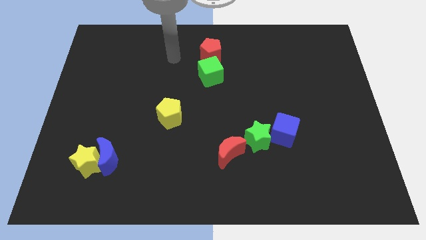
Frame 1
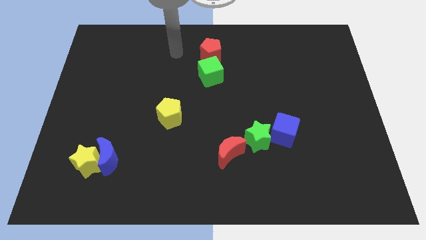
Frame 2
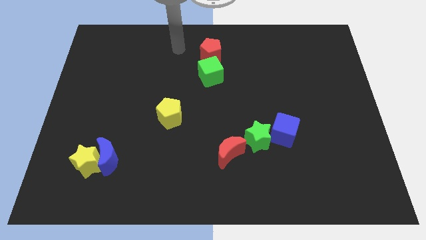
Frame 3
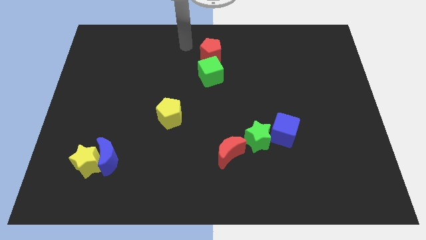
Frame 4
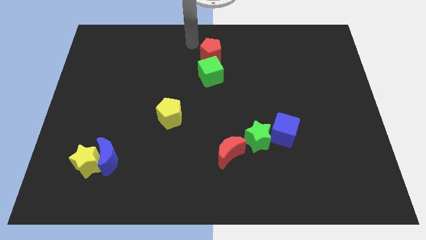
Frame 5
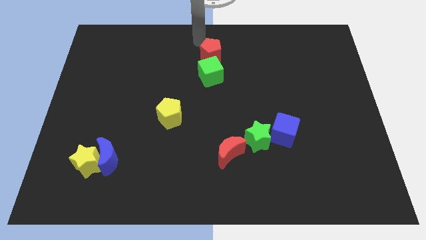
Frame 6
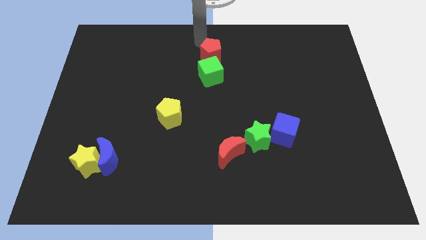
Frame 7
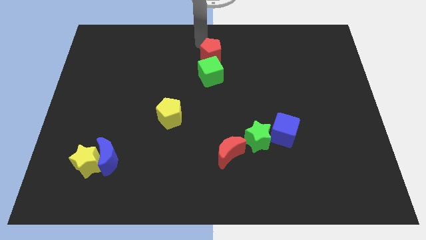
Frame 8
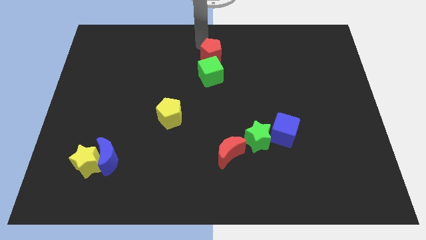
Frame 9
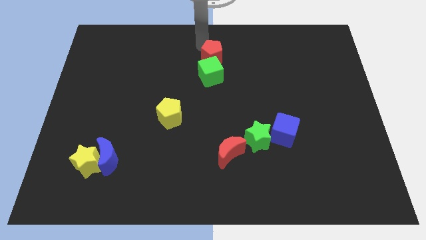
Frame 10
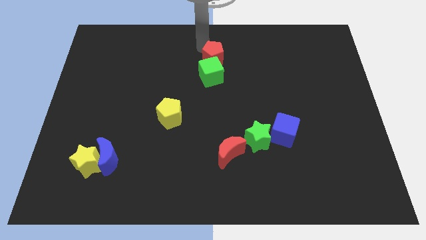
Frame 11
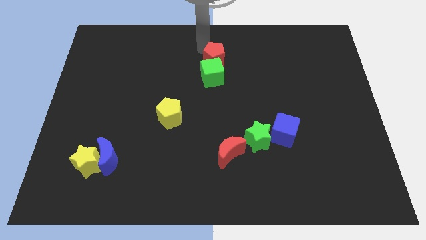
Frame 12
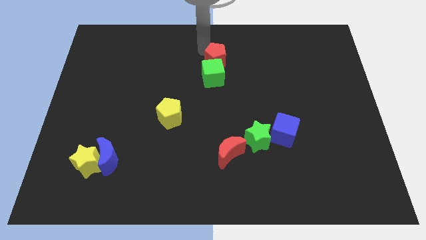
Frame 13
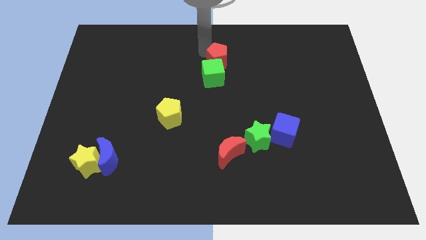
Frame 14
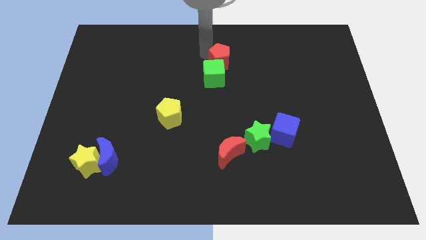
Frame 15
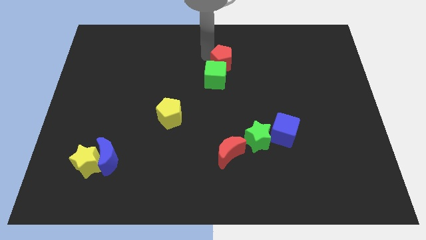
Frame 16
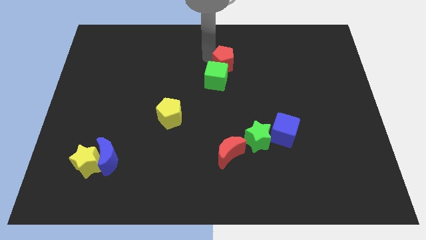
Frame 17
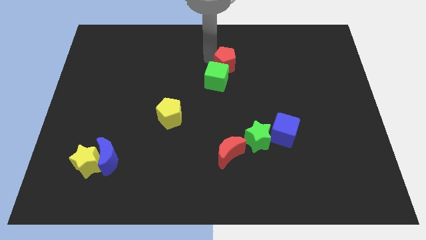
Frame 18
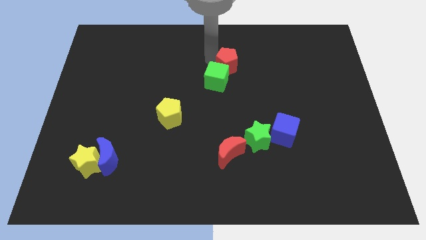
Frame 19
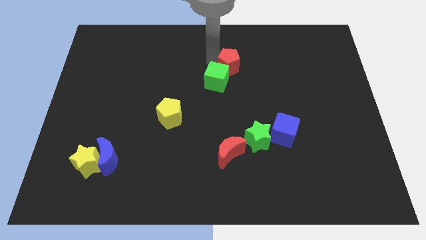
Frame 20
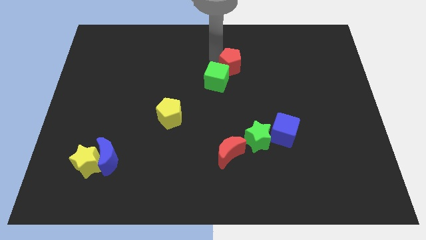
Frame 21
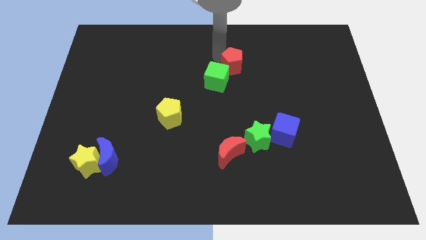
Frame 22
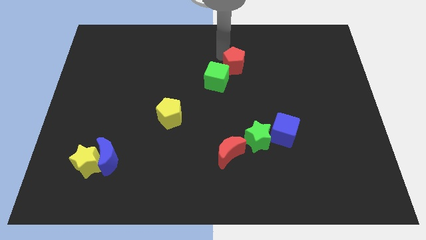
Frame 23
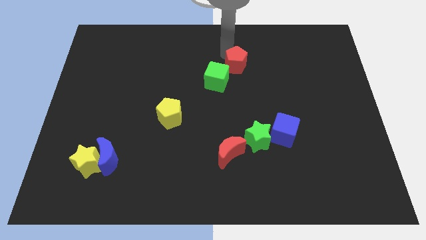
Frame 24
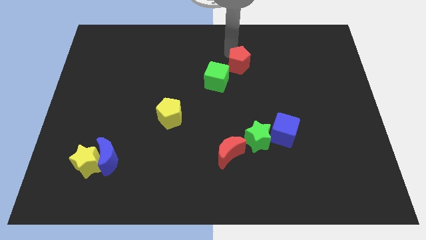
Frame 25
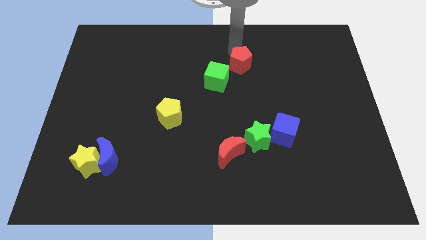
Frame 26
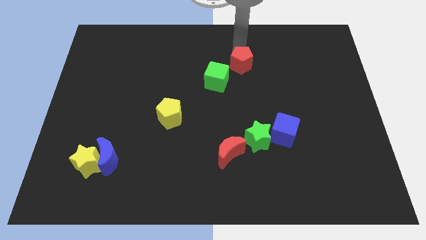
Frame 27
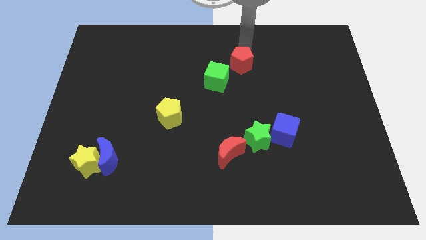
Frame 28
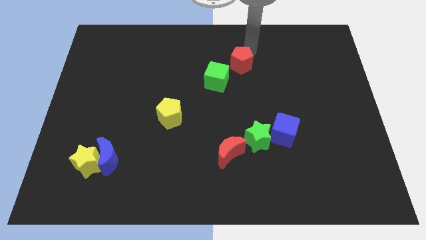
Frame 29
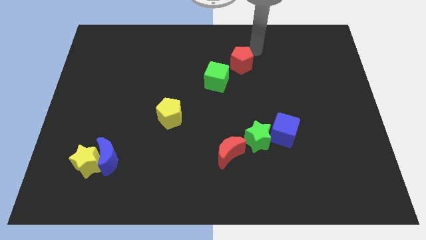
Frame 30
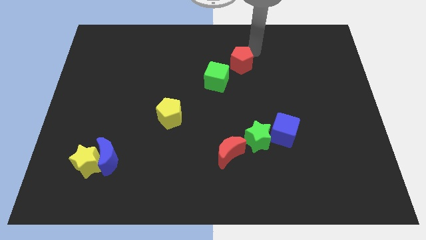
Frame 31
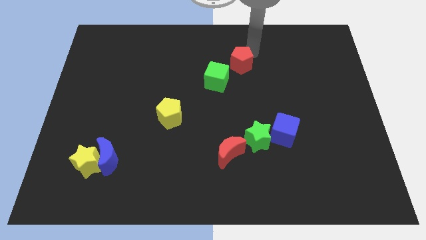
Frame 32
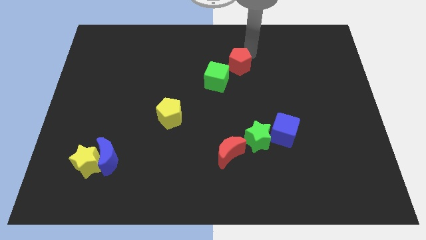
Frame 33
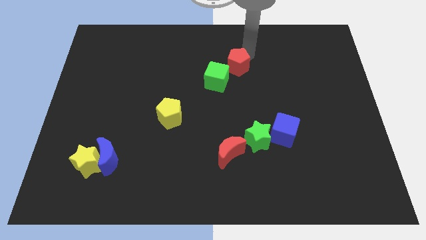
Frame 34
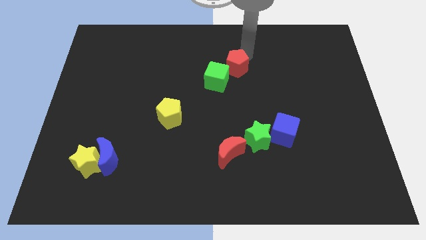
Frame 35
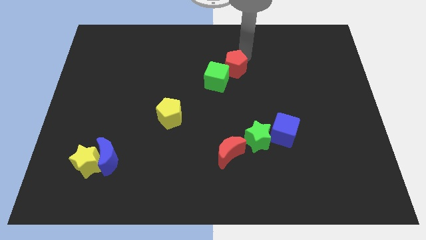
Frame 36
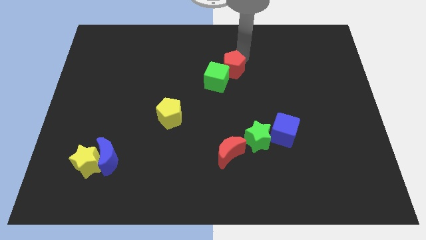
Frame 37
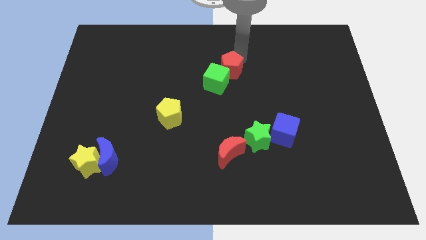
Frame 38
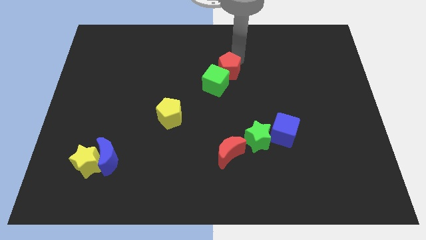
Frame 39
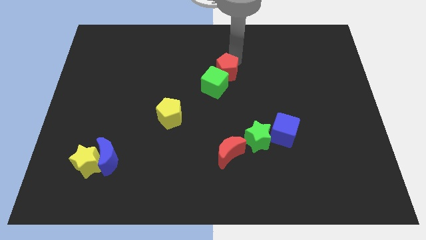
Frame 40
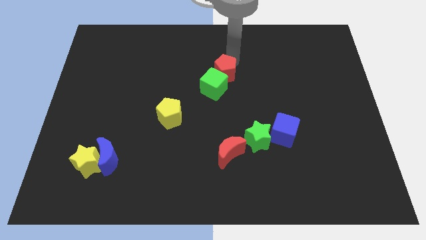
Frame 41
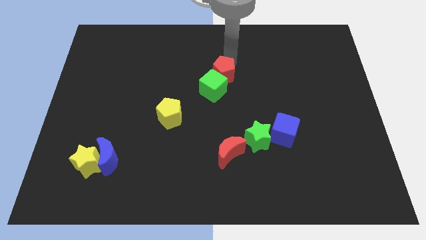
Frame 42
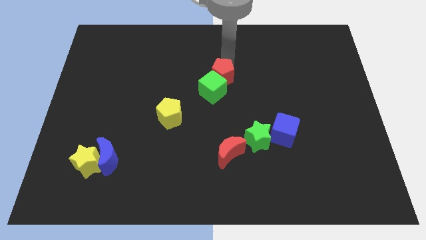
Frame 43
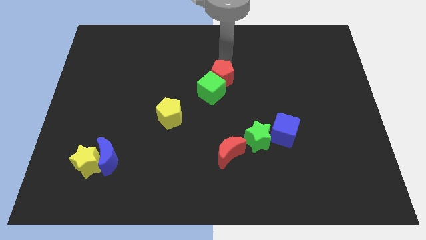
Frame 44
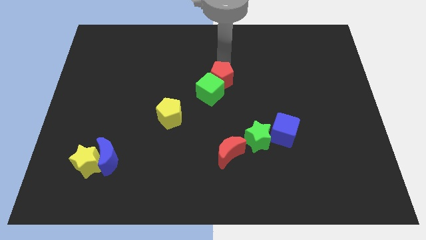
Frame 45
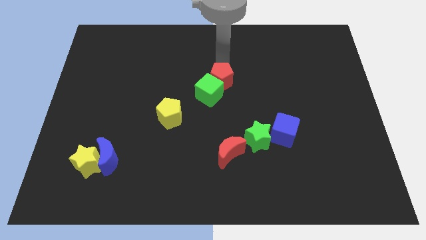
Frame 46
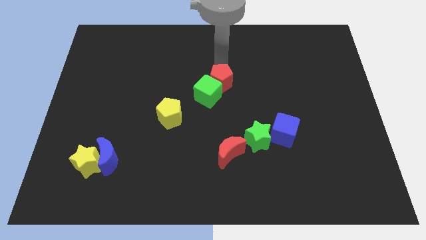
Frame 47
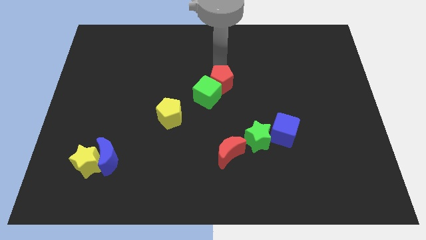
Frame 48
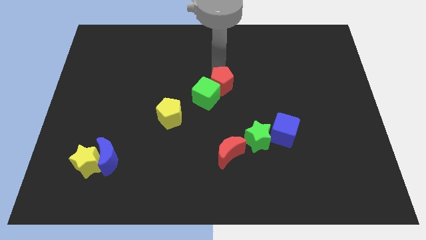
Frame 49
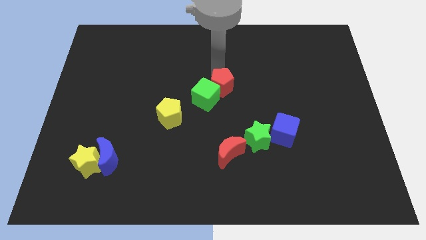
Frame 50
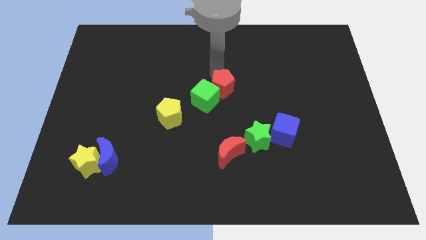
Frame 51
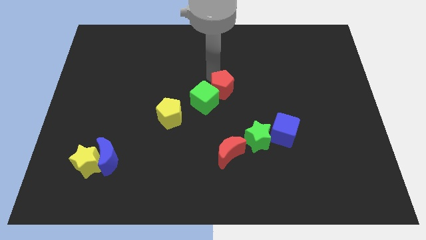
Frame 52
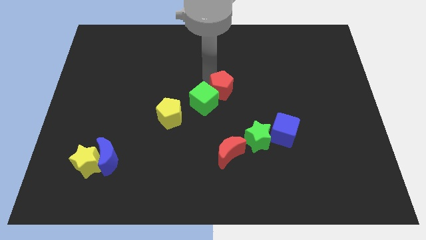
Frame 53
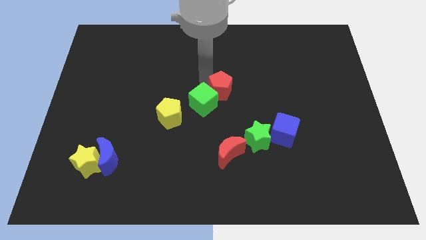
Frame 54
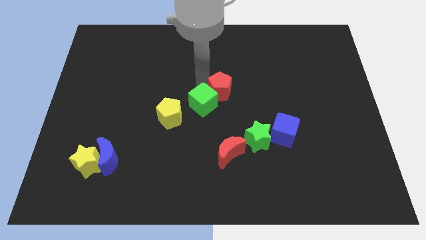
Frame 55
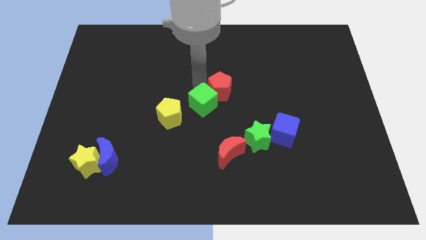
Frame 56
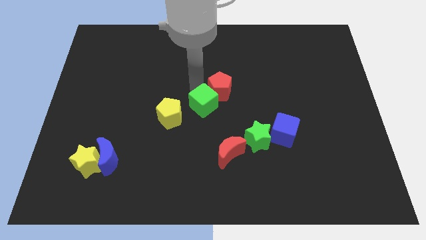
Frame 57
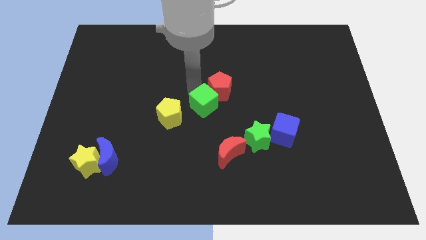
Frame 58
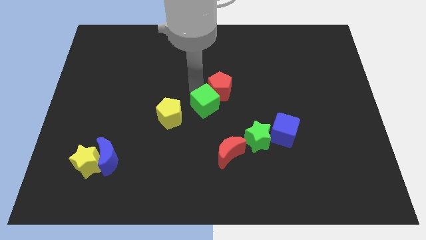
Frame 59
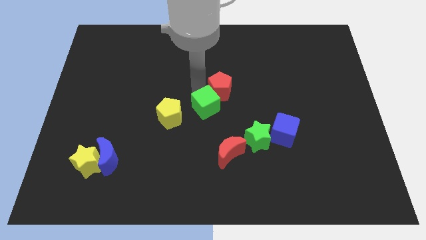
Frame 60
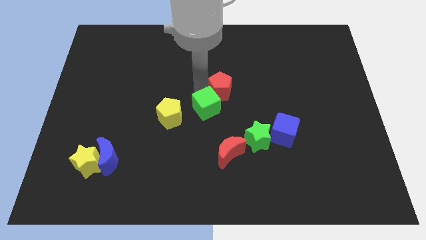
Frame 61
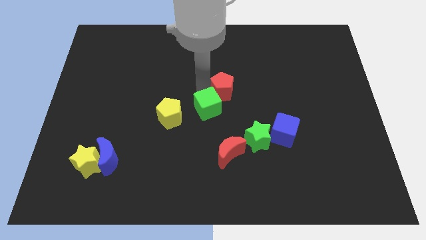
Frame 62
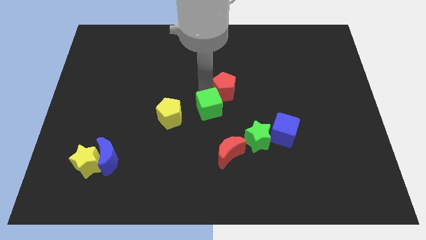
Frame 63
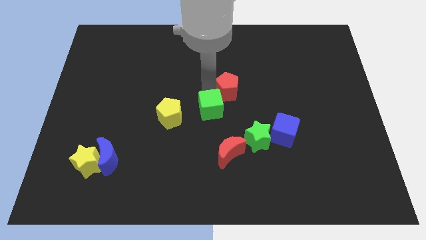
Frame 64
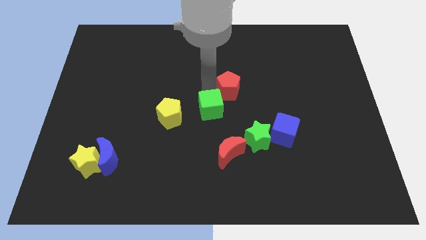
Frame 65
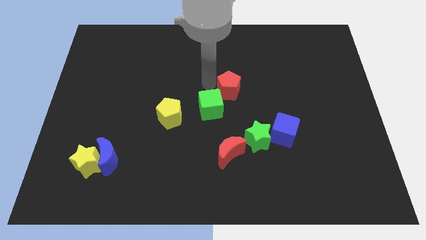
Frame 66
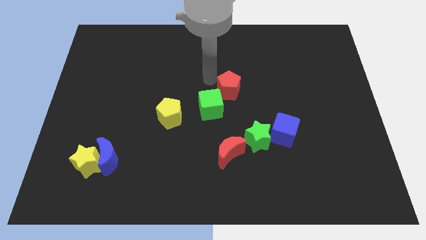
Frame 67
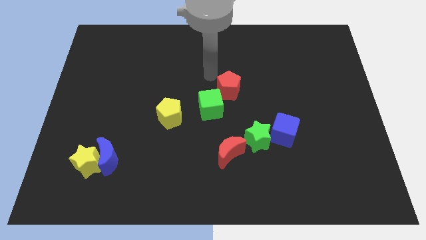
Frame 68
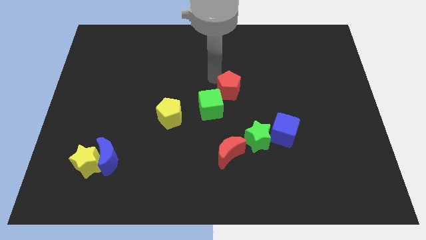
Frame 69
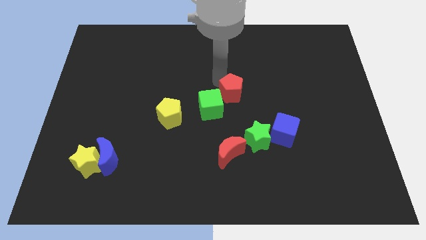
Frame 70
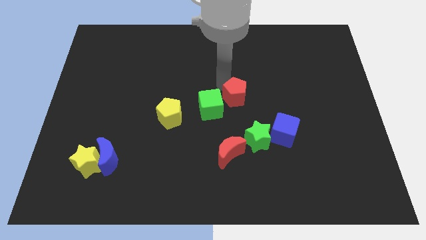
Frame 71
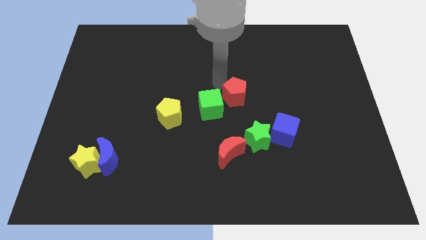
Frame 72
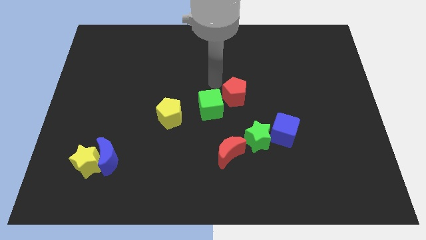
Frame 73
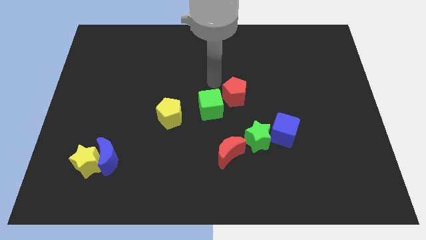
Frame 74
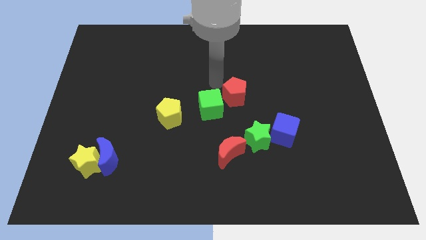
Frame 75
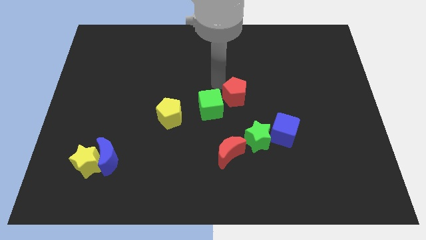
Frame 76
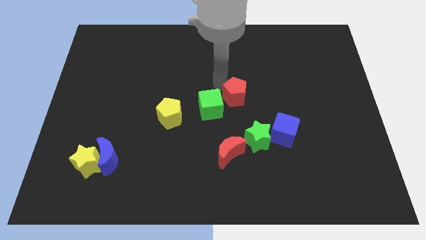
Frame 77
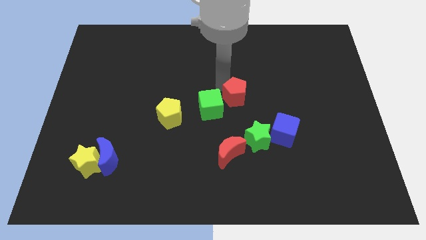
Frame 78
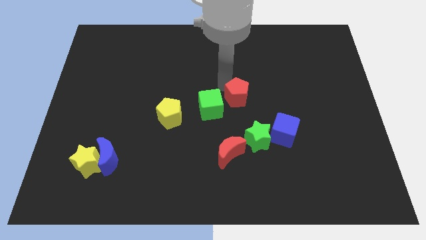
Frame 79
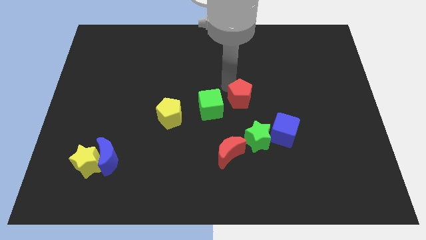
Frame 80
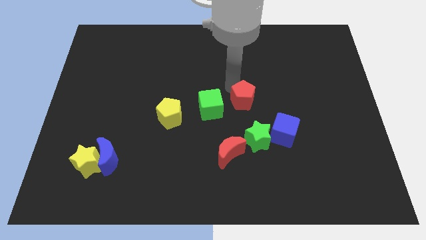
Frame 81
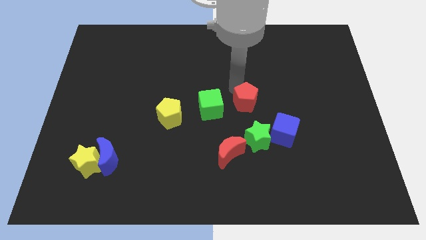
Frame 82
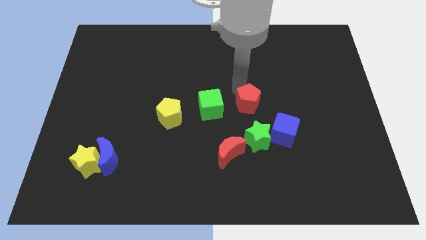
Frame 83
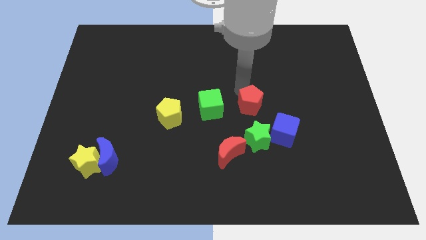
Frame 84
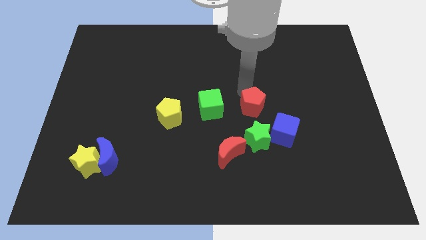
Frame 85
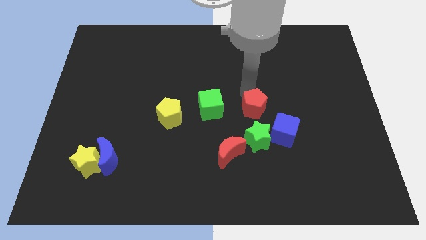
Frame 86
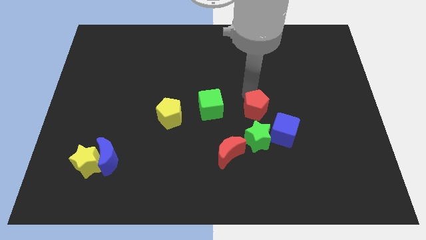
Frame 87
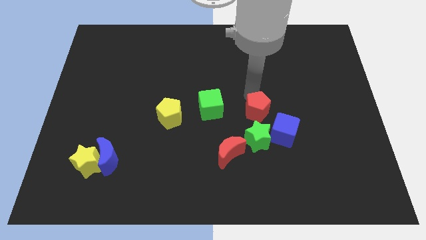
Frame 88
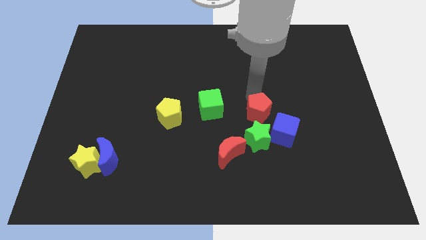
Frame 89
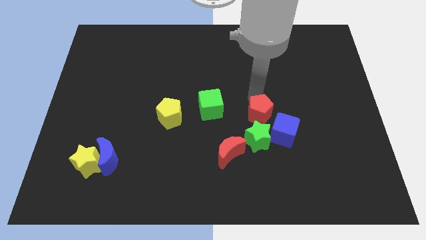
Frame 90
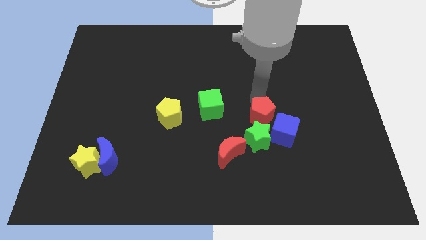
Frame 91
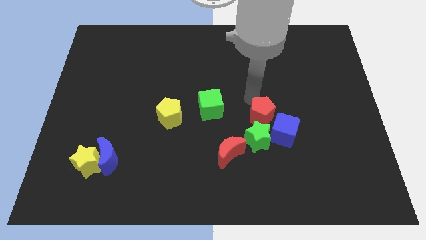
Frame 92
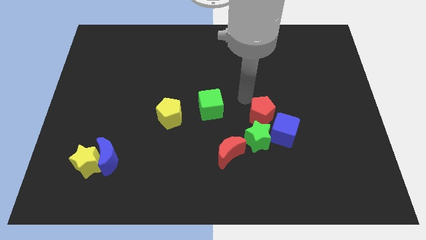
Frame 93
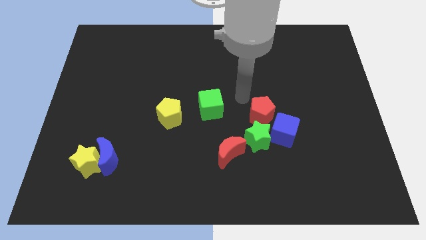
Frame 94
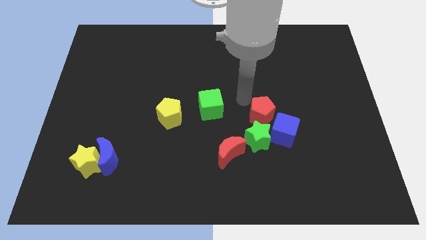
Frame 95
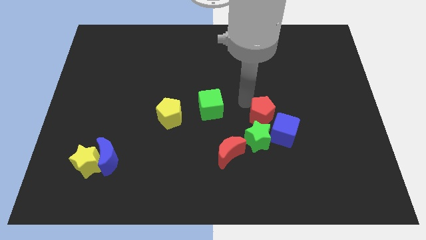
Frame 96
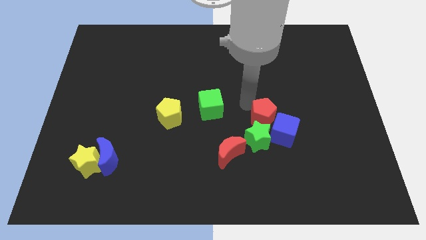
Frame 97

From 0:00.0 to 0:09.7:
slide the red pentagon close to the blue cube
